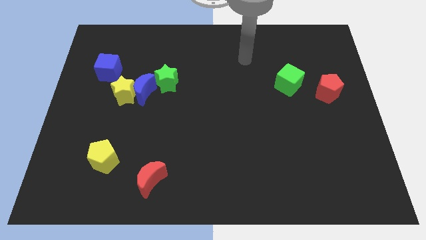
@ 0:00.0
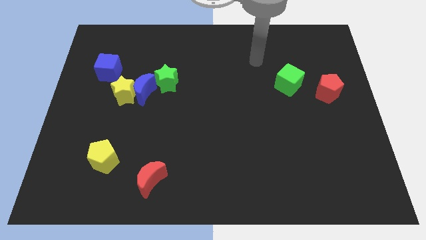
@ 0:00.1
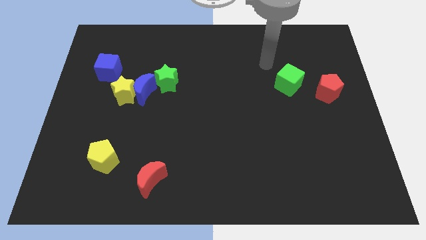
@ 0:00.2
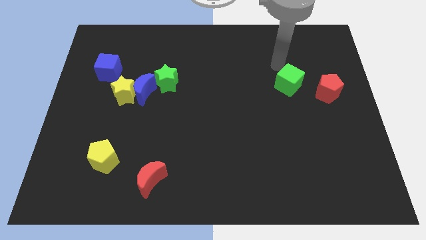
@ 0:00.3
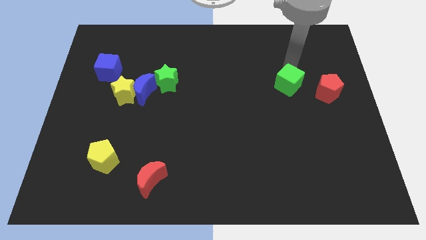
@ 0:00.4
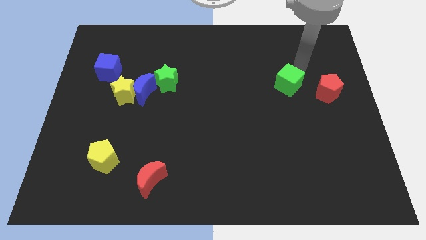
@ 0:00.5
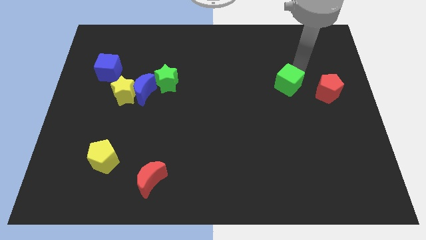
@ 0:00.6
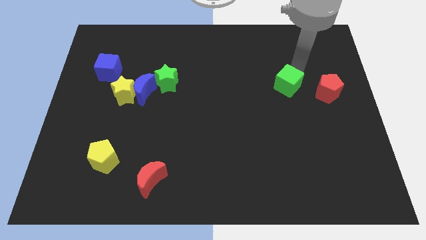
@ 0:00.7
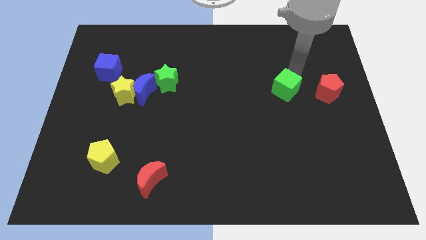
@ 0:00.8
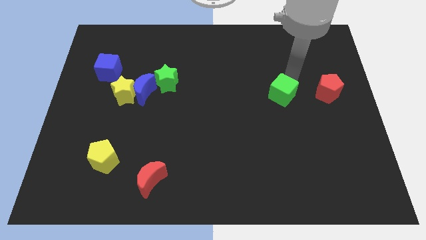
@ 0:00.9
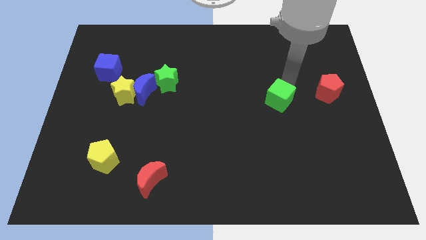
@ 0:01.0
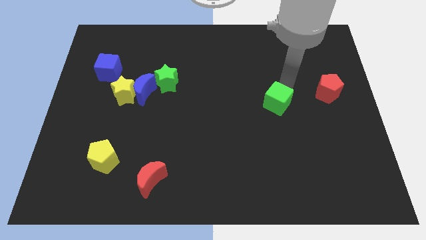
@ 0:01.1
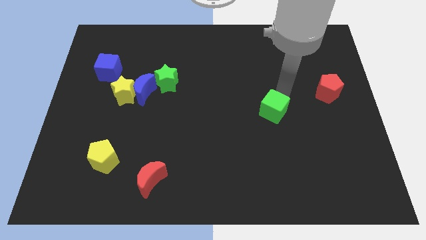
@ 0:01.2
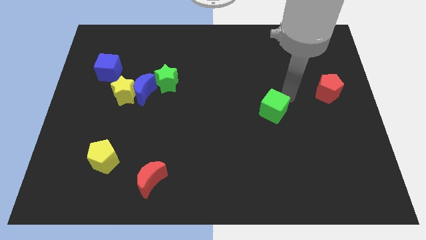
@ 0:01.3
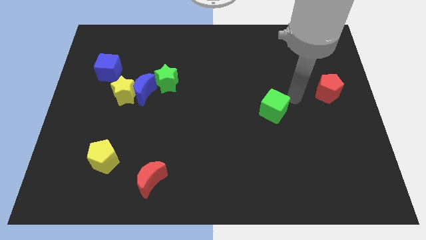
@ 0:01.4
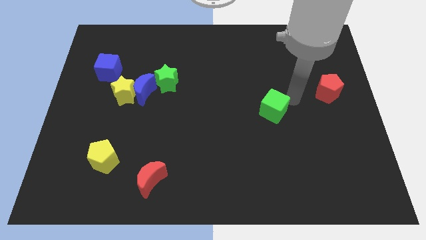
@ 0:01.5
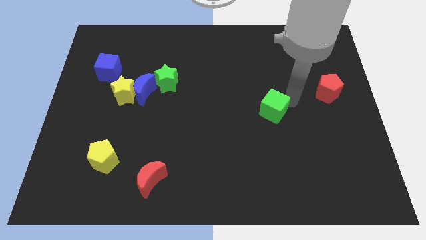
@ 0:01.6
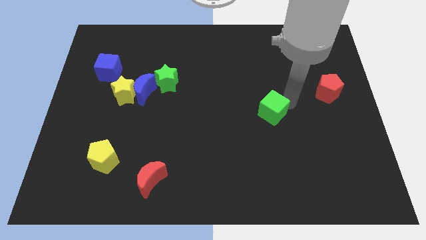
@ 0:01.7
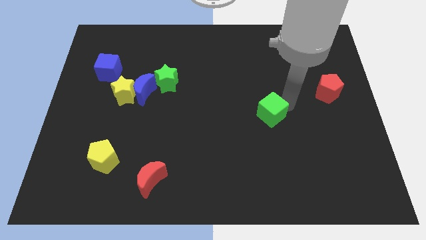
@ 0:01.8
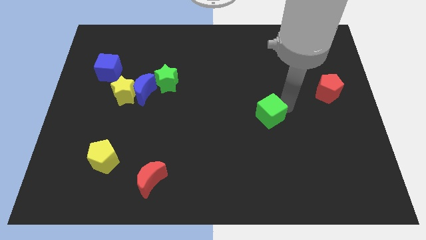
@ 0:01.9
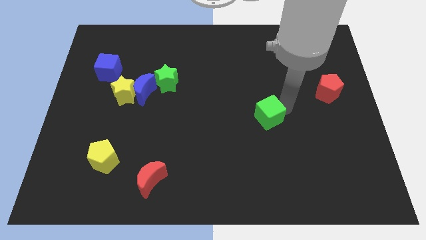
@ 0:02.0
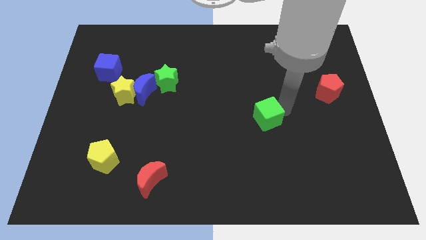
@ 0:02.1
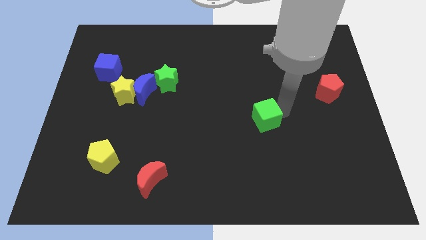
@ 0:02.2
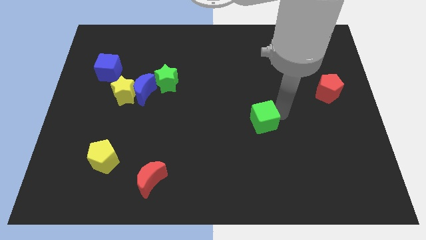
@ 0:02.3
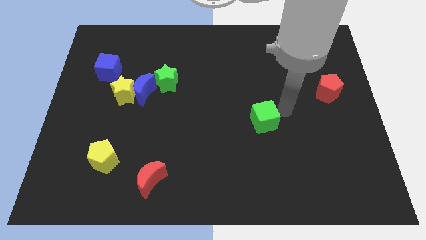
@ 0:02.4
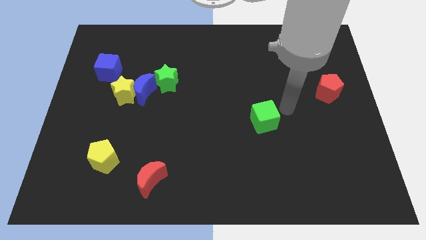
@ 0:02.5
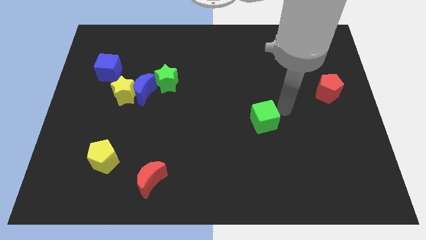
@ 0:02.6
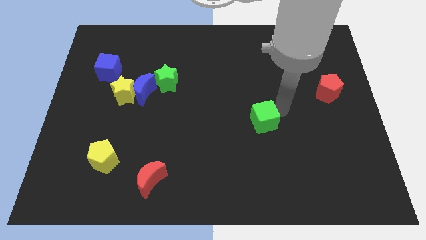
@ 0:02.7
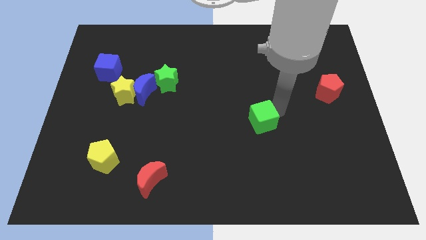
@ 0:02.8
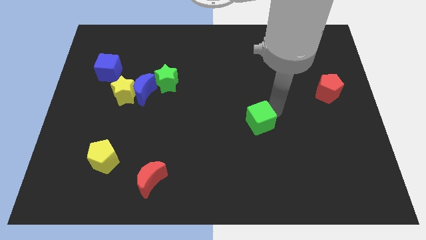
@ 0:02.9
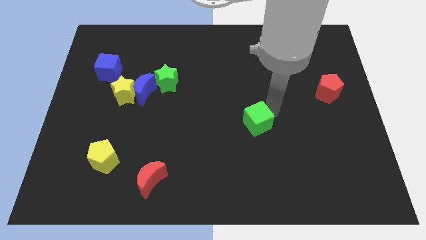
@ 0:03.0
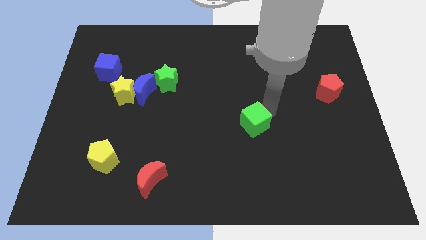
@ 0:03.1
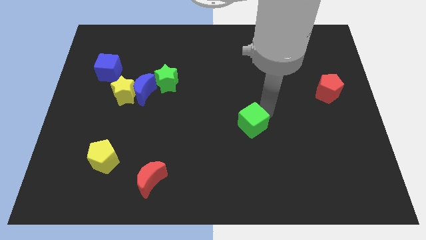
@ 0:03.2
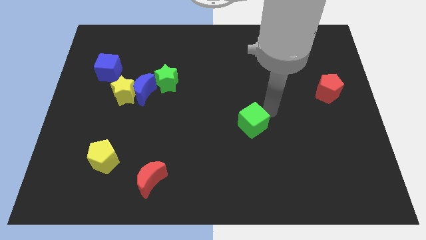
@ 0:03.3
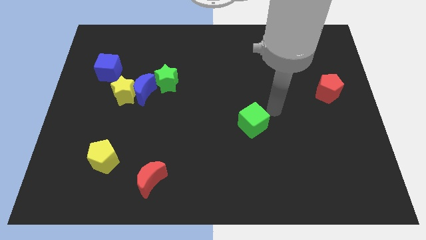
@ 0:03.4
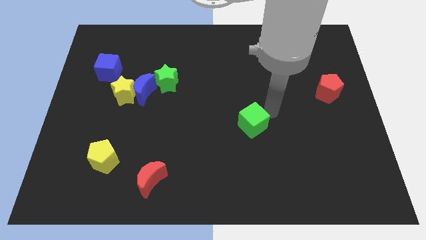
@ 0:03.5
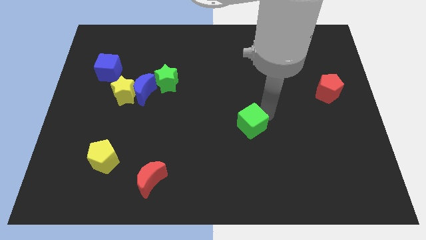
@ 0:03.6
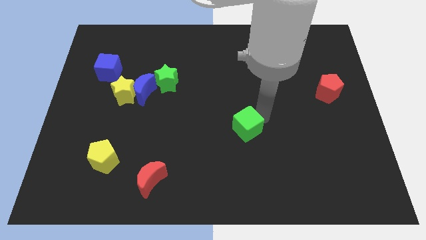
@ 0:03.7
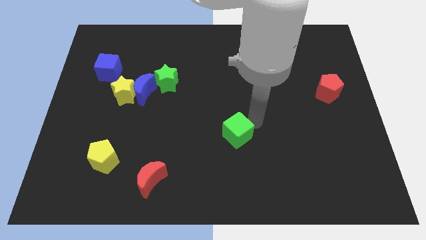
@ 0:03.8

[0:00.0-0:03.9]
move the green cube down and left diagonally

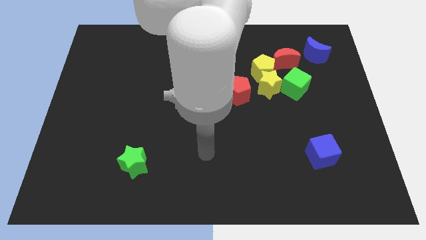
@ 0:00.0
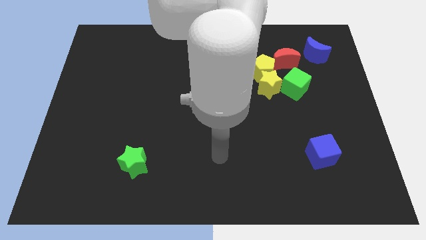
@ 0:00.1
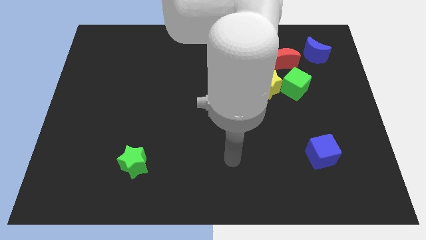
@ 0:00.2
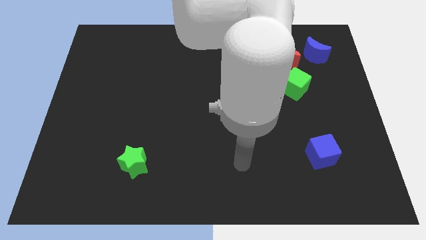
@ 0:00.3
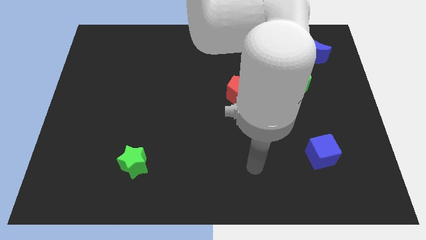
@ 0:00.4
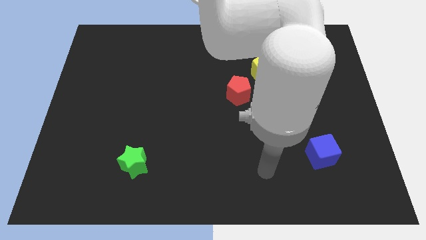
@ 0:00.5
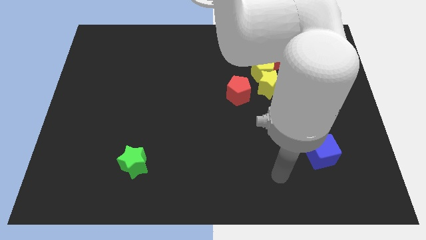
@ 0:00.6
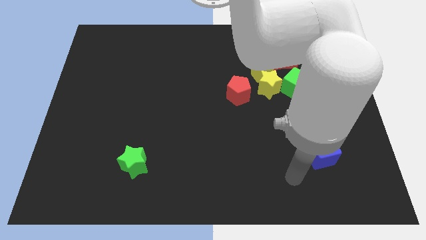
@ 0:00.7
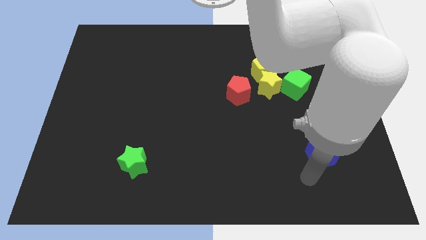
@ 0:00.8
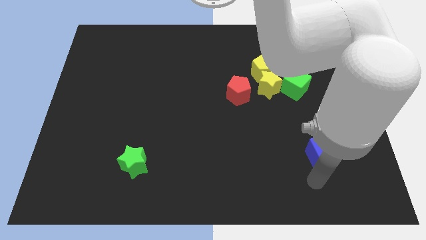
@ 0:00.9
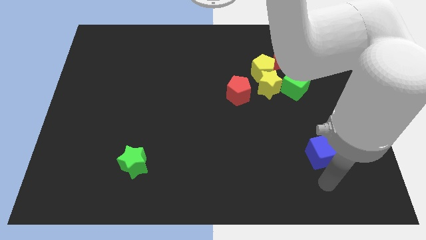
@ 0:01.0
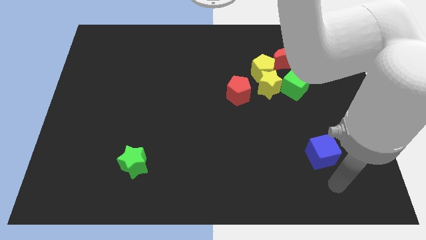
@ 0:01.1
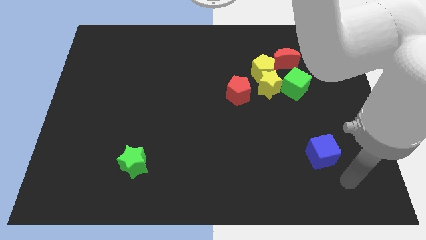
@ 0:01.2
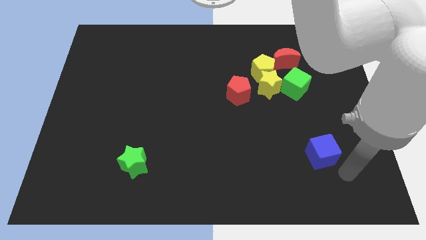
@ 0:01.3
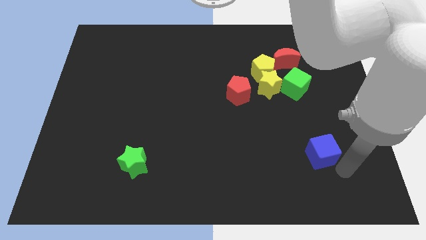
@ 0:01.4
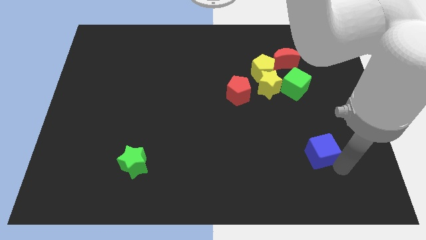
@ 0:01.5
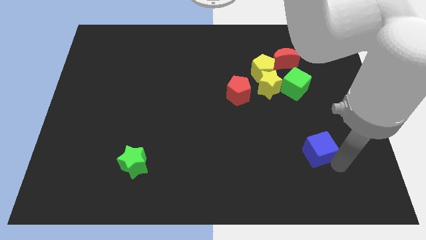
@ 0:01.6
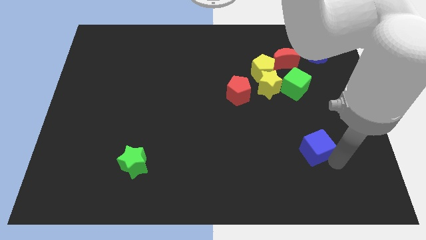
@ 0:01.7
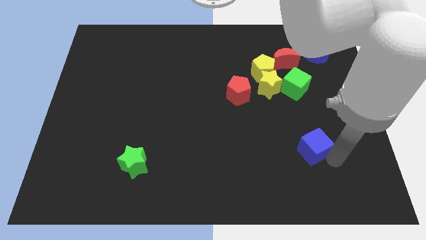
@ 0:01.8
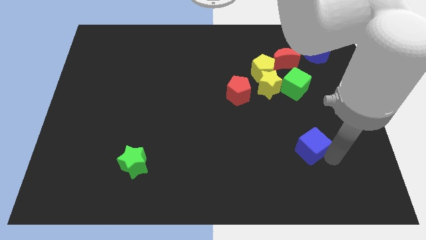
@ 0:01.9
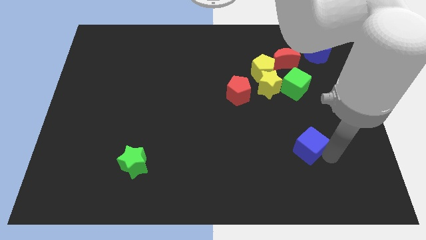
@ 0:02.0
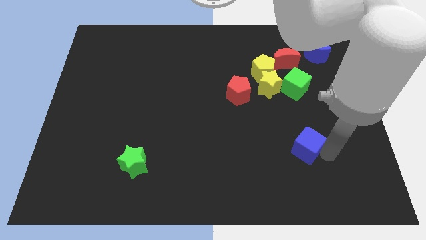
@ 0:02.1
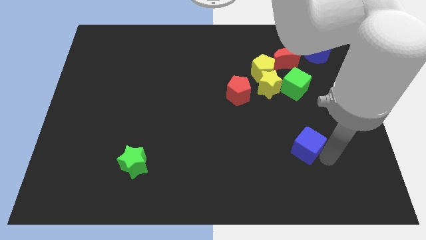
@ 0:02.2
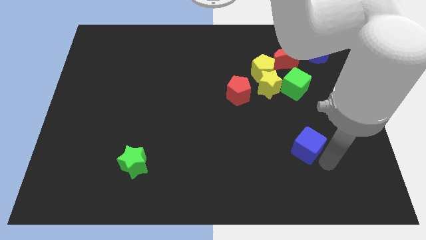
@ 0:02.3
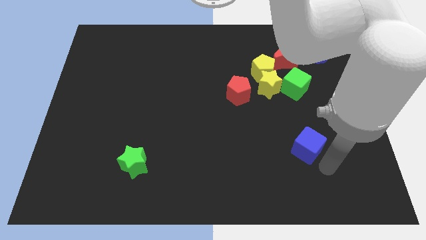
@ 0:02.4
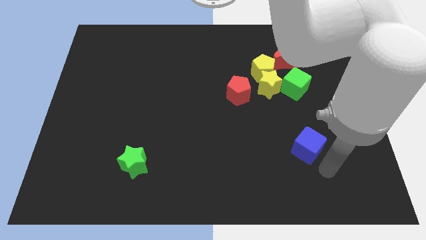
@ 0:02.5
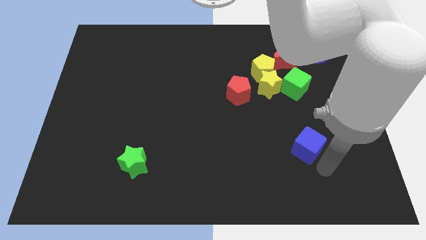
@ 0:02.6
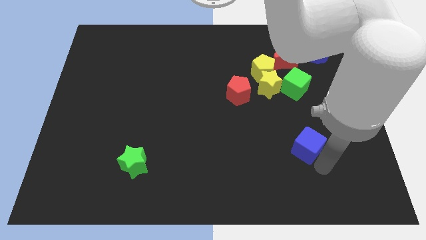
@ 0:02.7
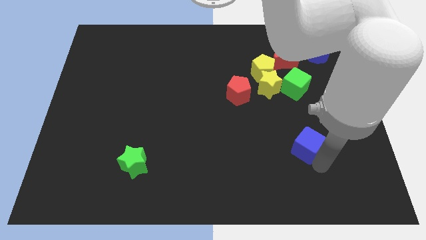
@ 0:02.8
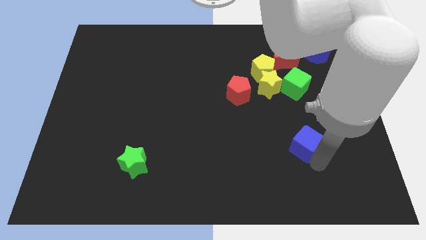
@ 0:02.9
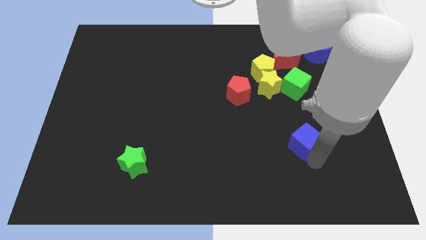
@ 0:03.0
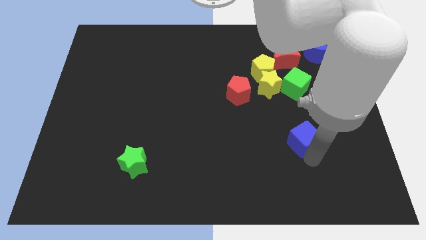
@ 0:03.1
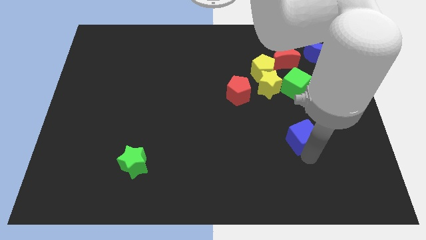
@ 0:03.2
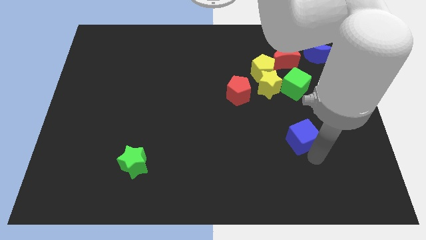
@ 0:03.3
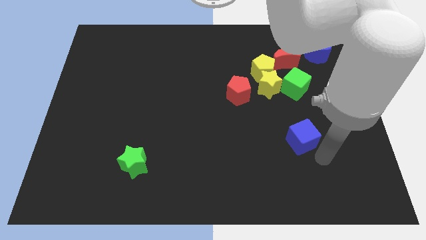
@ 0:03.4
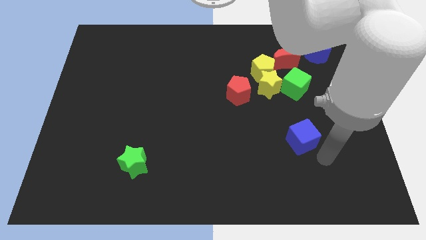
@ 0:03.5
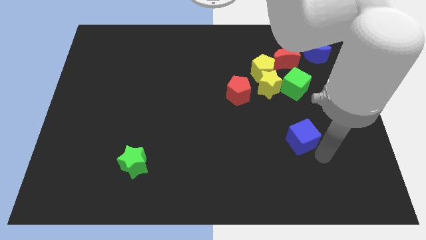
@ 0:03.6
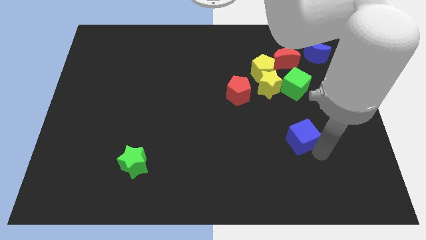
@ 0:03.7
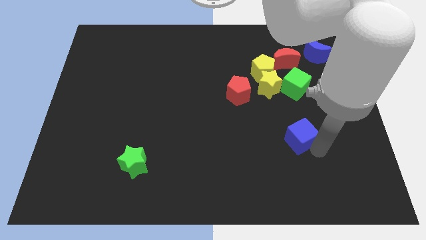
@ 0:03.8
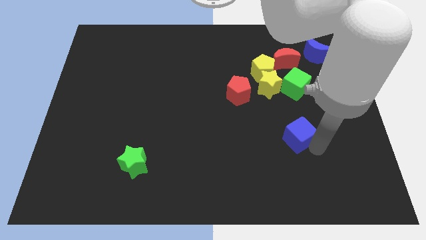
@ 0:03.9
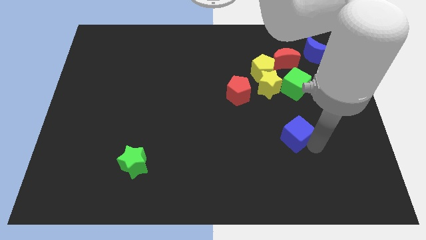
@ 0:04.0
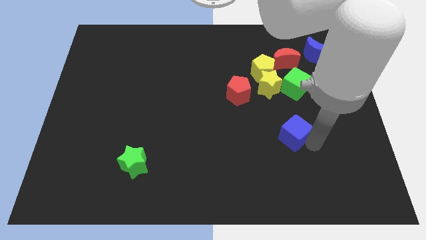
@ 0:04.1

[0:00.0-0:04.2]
slide the blue cube somewhat upwards and left
